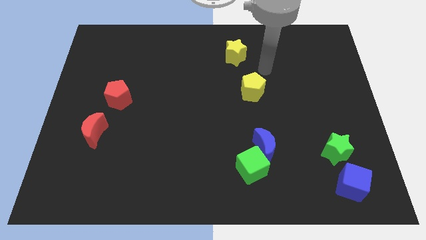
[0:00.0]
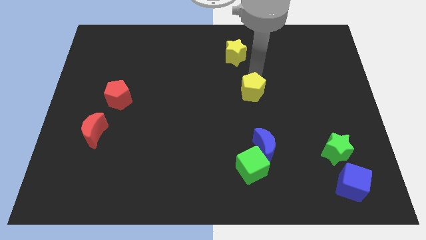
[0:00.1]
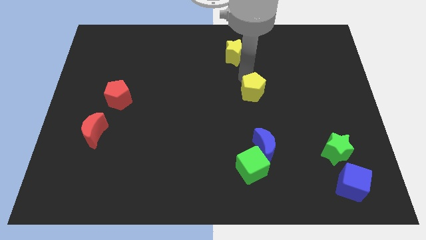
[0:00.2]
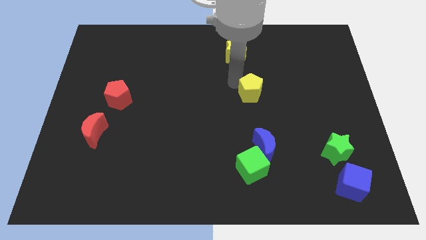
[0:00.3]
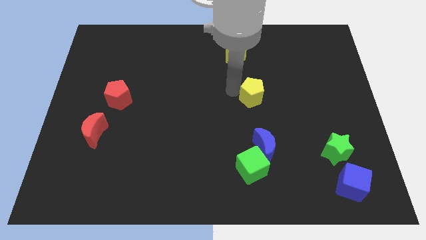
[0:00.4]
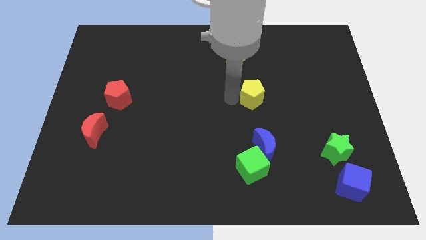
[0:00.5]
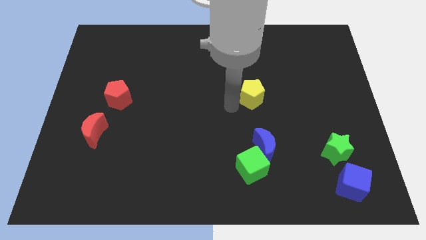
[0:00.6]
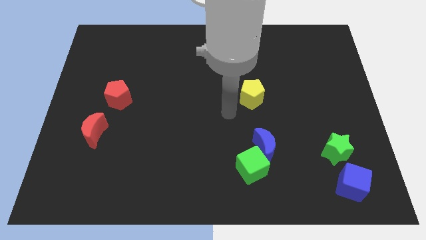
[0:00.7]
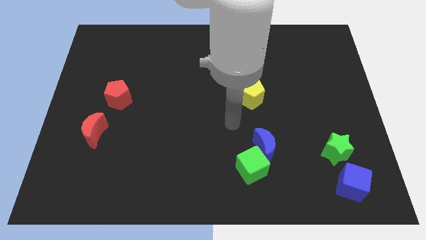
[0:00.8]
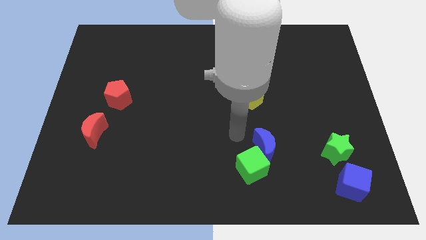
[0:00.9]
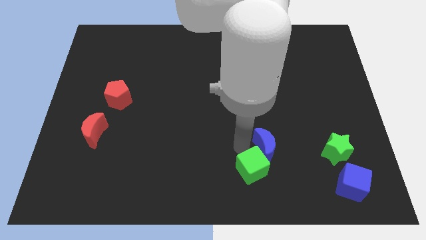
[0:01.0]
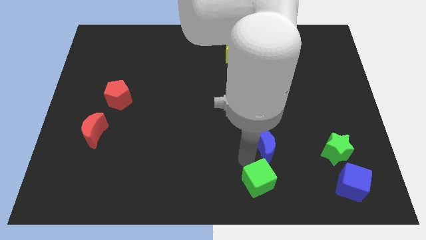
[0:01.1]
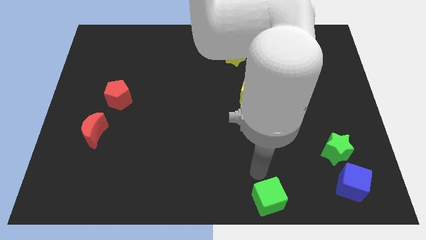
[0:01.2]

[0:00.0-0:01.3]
separate the blue moon from the green cube

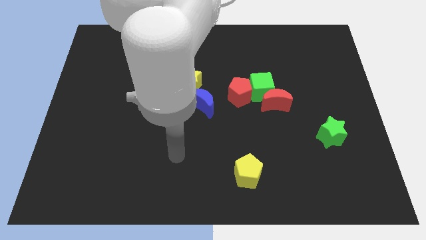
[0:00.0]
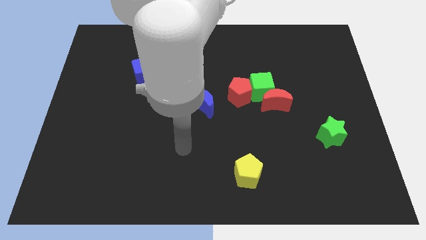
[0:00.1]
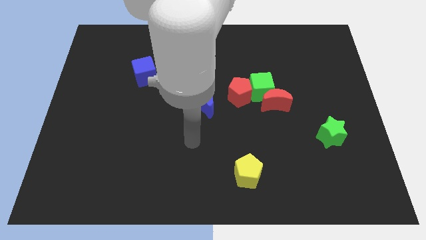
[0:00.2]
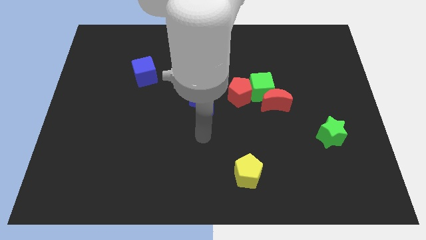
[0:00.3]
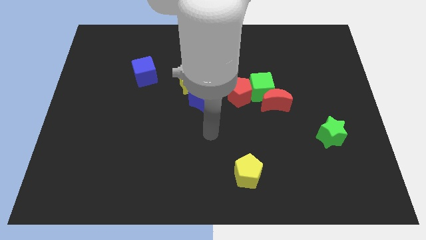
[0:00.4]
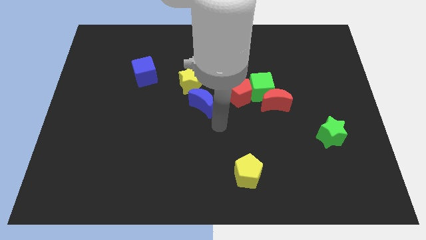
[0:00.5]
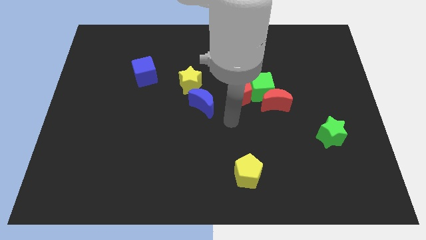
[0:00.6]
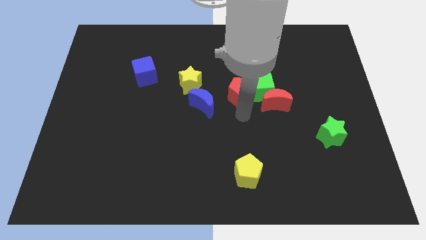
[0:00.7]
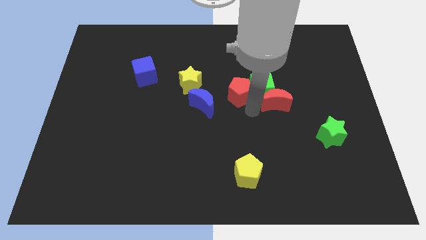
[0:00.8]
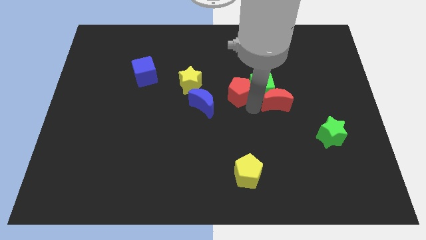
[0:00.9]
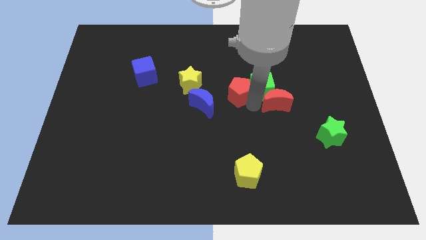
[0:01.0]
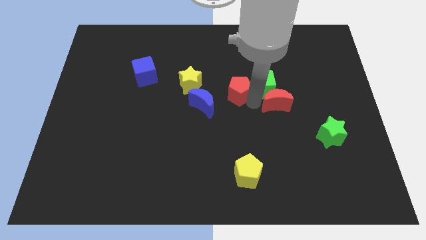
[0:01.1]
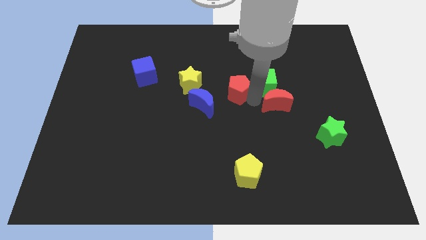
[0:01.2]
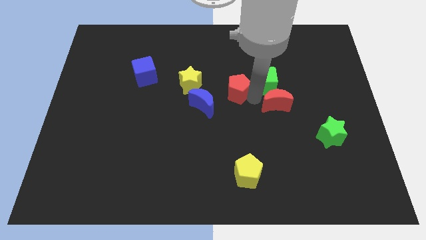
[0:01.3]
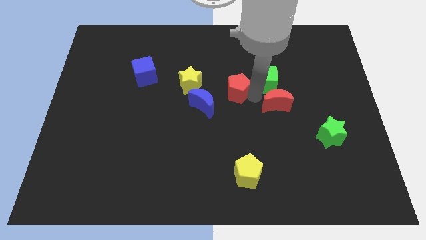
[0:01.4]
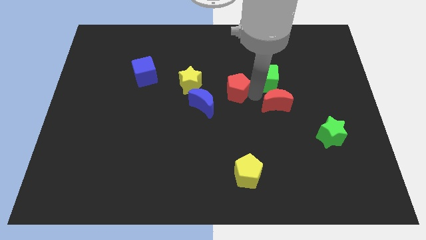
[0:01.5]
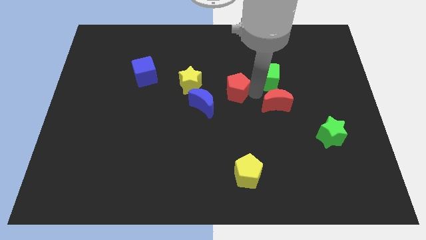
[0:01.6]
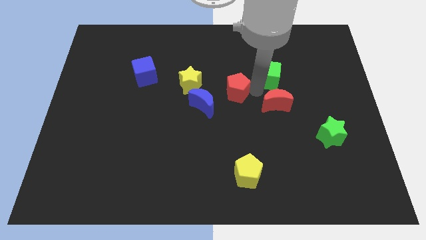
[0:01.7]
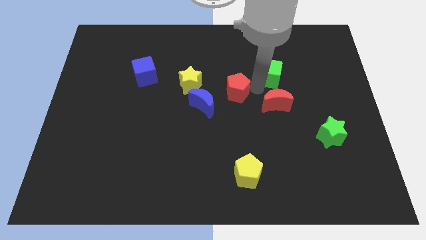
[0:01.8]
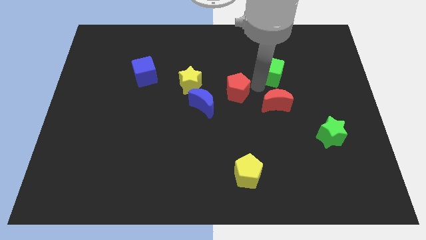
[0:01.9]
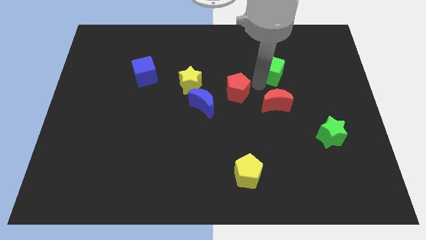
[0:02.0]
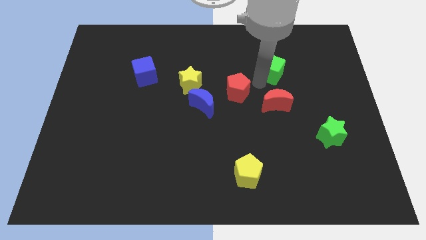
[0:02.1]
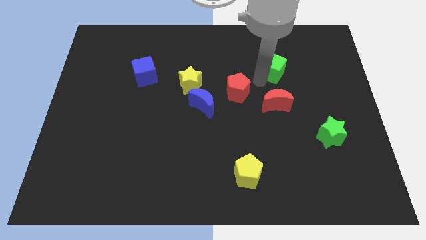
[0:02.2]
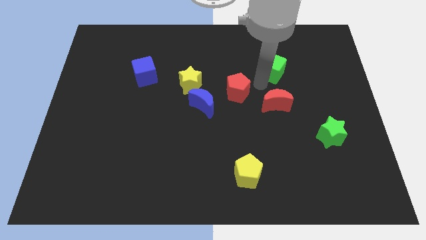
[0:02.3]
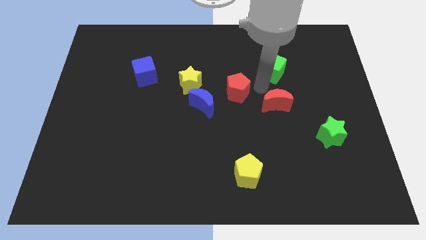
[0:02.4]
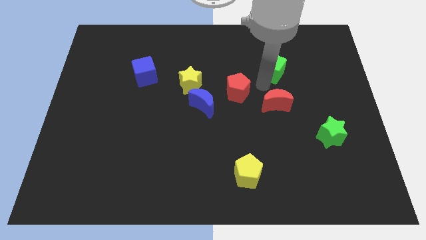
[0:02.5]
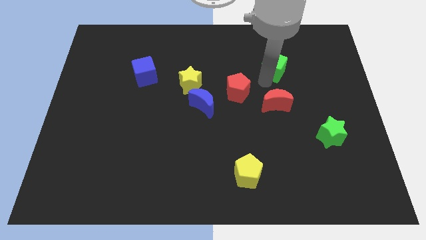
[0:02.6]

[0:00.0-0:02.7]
pull the green cube apart from the red moon and red pentagon

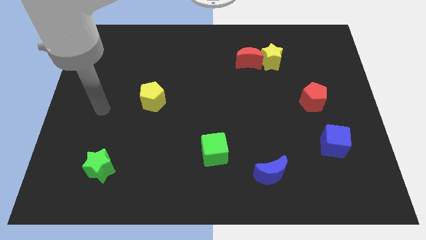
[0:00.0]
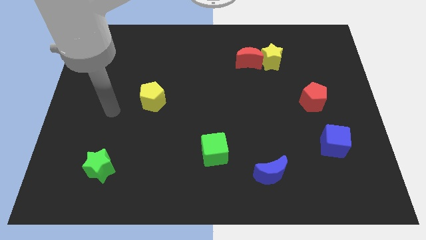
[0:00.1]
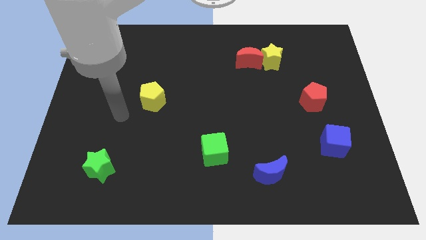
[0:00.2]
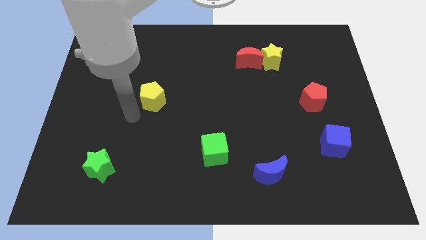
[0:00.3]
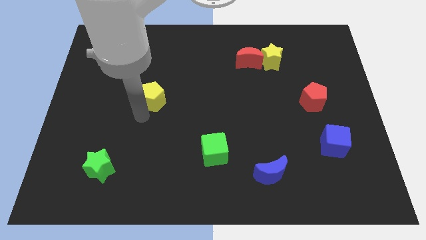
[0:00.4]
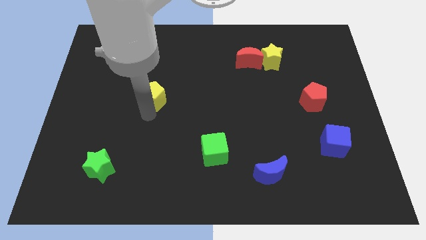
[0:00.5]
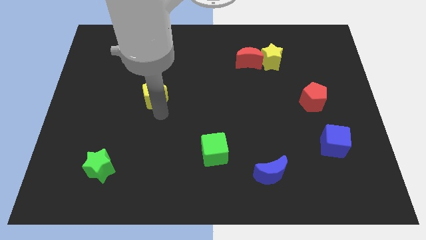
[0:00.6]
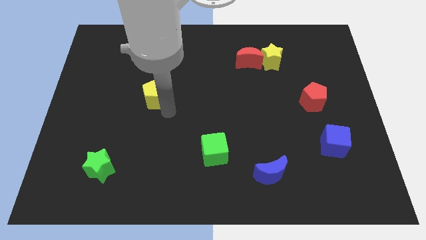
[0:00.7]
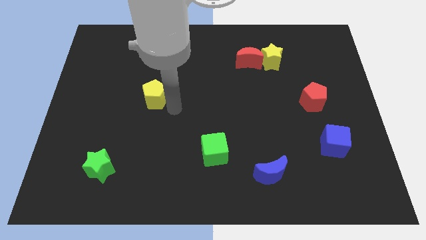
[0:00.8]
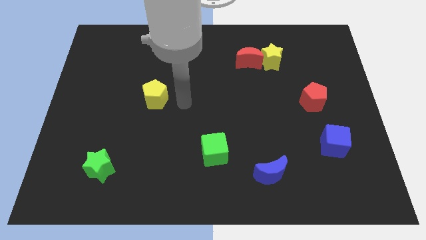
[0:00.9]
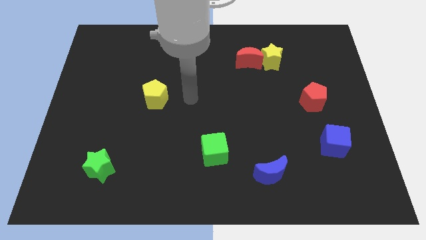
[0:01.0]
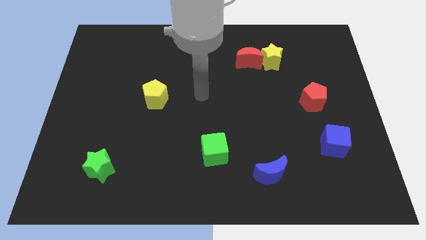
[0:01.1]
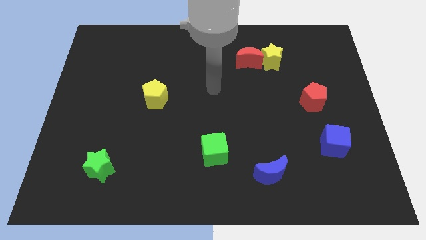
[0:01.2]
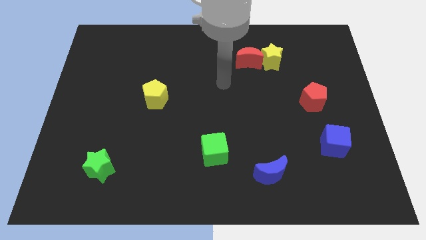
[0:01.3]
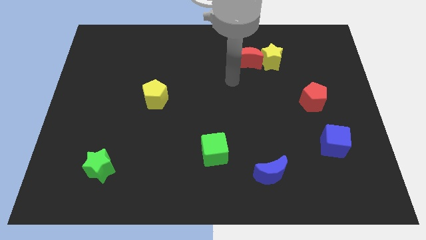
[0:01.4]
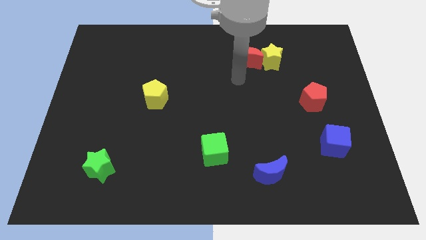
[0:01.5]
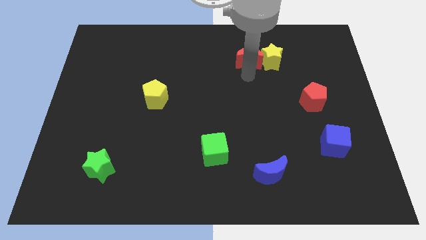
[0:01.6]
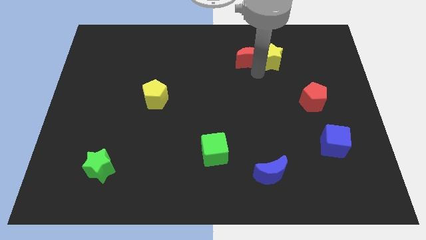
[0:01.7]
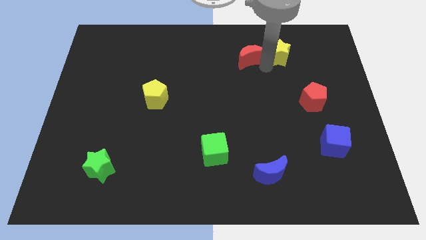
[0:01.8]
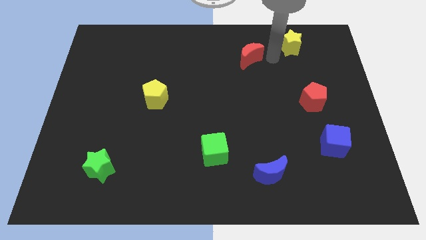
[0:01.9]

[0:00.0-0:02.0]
move the red moon away from the yellow star

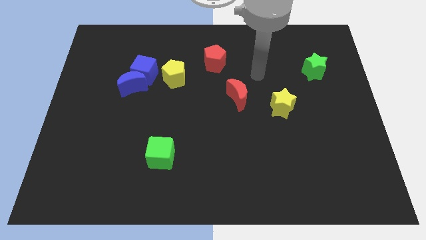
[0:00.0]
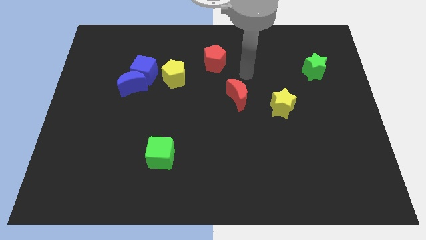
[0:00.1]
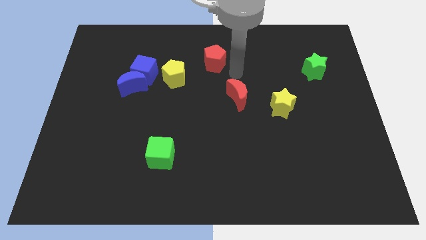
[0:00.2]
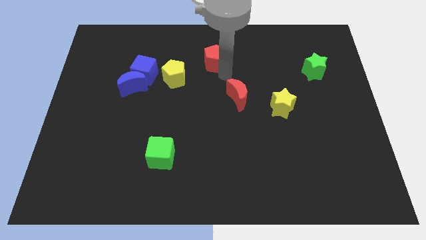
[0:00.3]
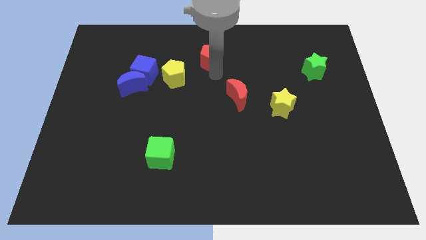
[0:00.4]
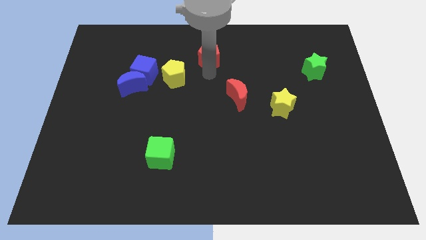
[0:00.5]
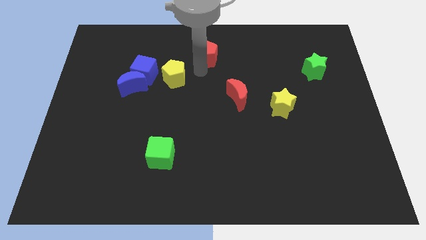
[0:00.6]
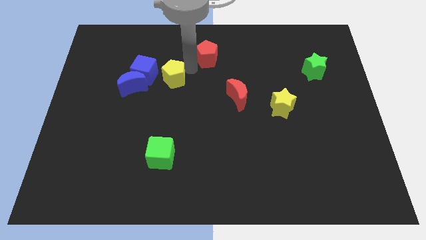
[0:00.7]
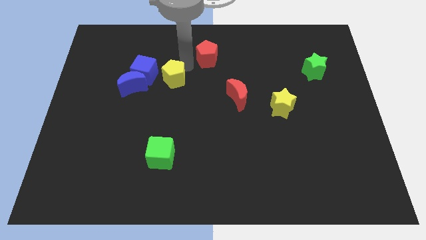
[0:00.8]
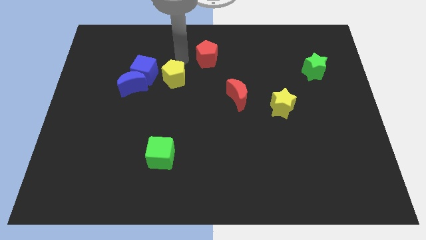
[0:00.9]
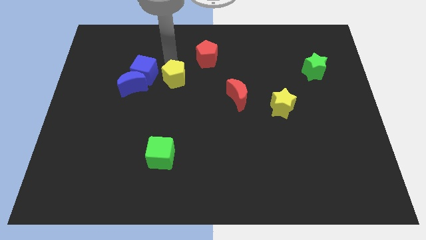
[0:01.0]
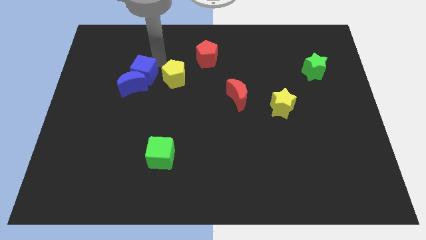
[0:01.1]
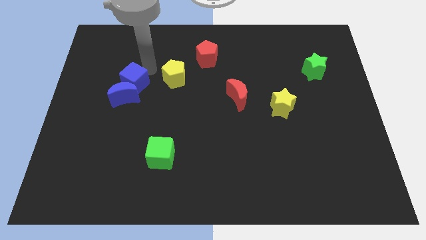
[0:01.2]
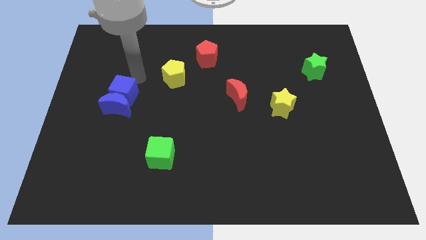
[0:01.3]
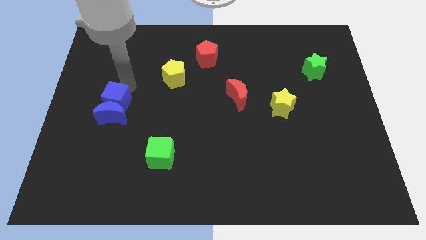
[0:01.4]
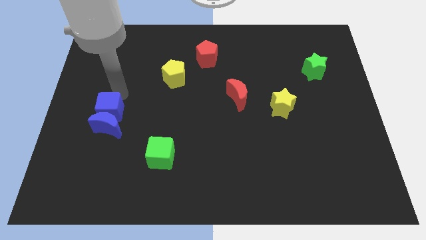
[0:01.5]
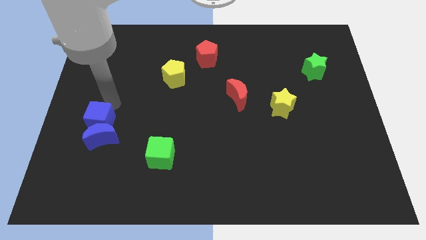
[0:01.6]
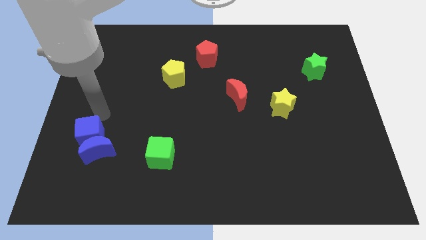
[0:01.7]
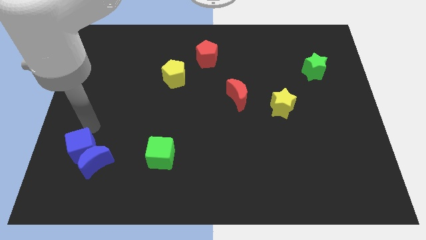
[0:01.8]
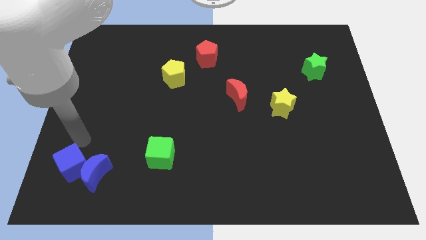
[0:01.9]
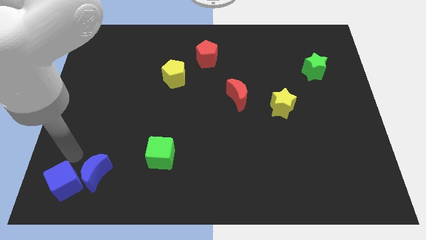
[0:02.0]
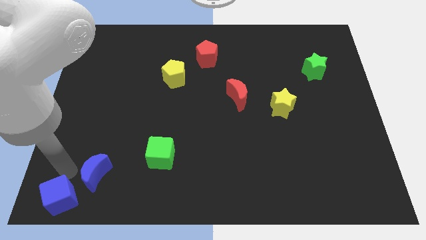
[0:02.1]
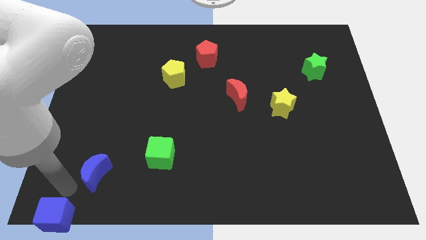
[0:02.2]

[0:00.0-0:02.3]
pull the blue moon apart from the blue cube

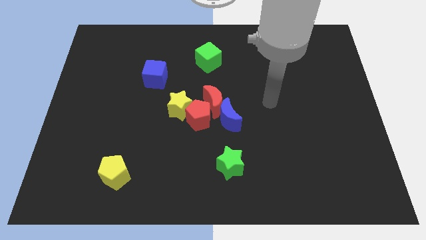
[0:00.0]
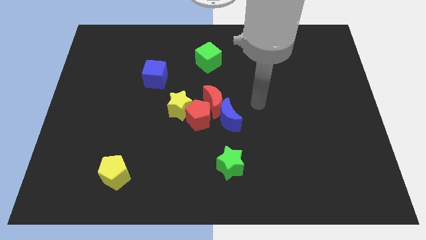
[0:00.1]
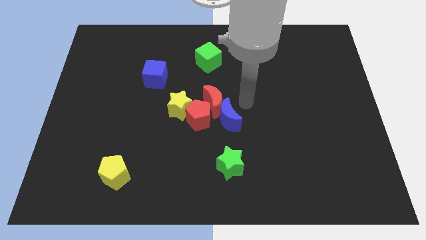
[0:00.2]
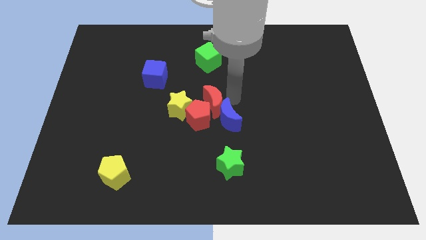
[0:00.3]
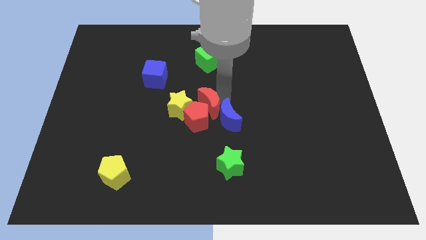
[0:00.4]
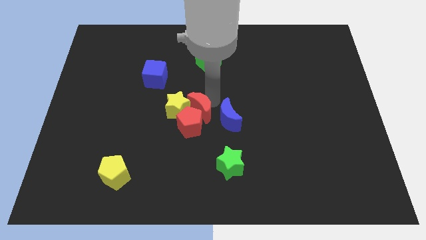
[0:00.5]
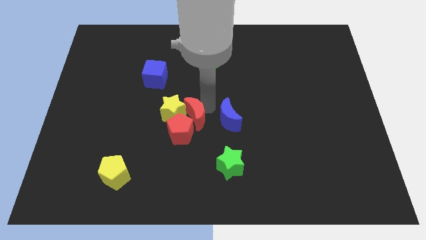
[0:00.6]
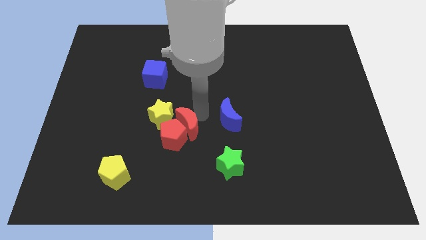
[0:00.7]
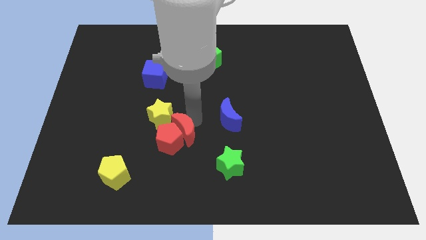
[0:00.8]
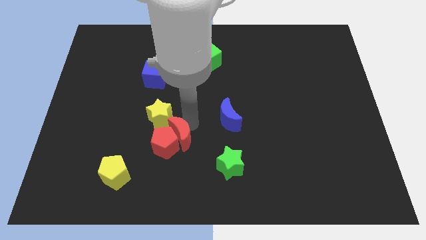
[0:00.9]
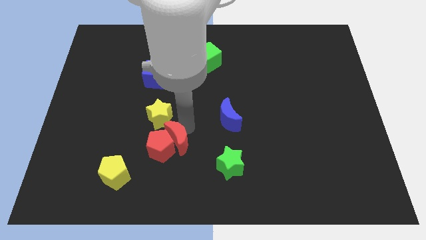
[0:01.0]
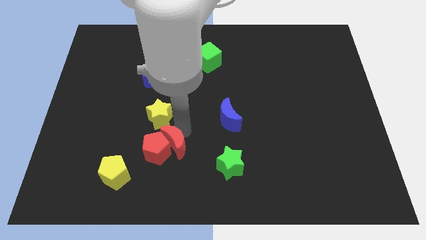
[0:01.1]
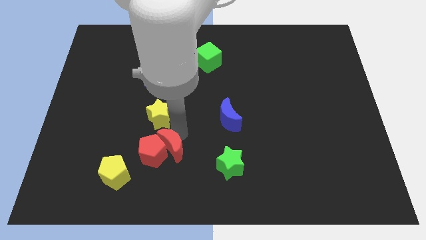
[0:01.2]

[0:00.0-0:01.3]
separate the red pentagon from the group
